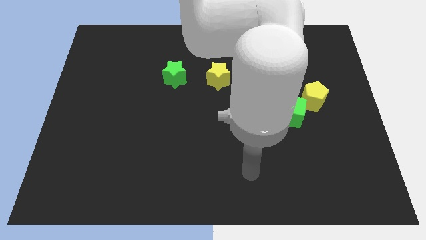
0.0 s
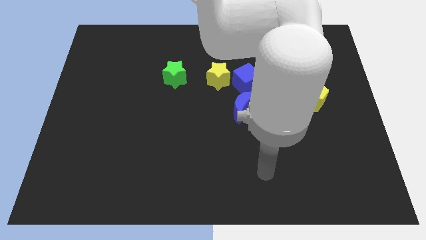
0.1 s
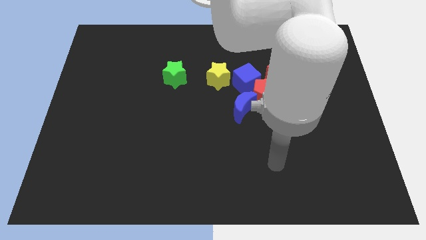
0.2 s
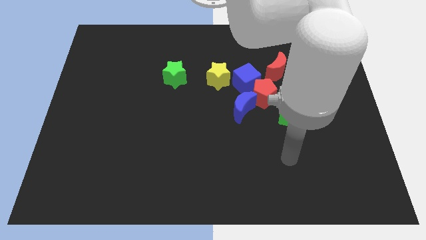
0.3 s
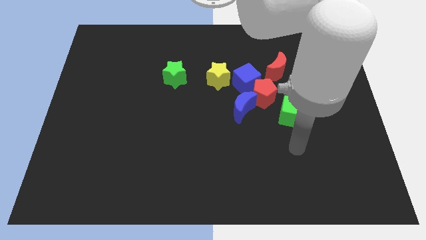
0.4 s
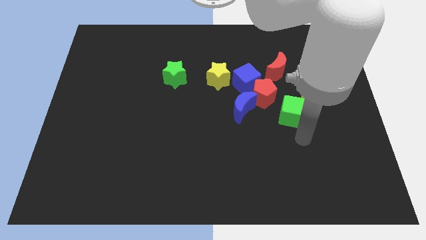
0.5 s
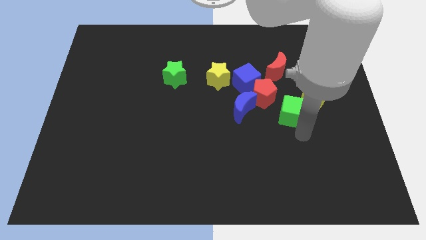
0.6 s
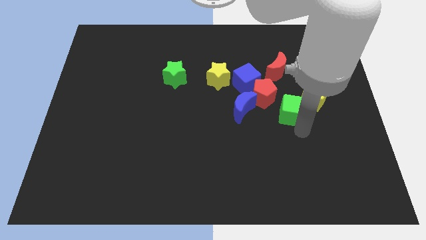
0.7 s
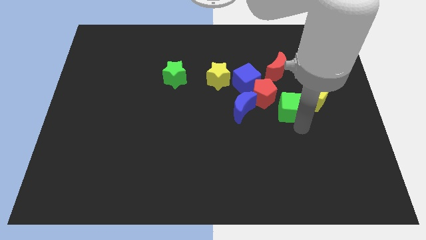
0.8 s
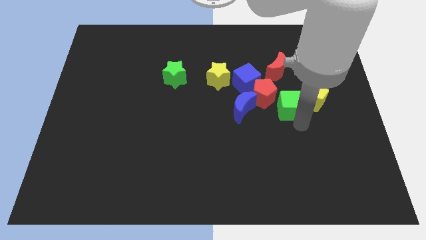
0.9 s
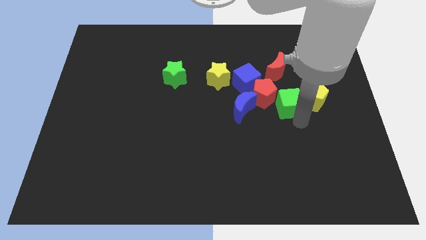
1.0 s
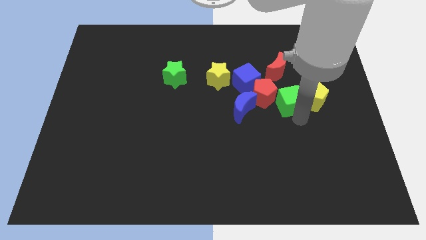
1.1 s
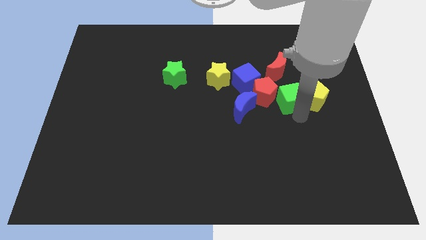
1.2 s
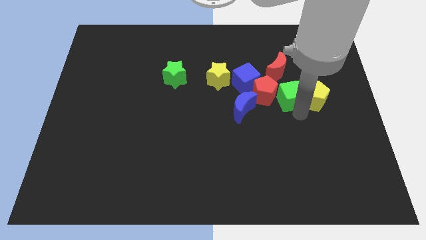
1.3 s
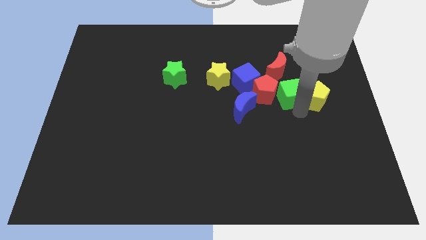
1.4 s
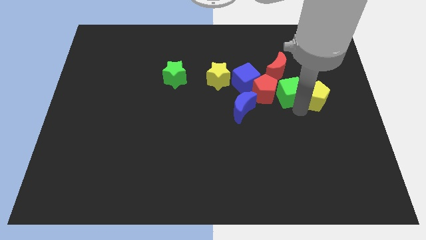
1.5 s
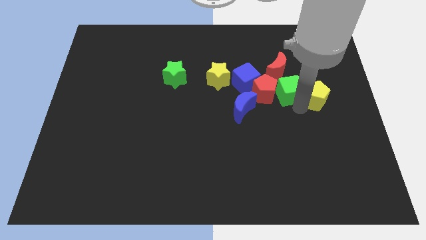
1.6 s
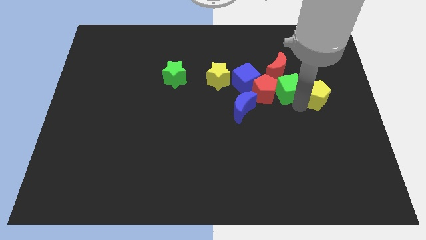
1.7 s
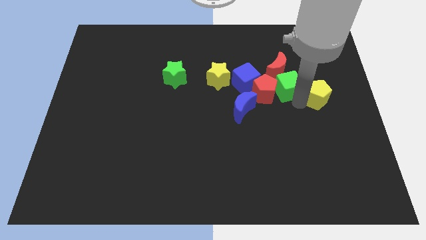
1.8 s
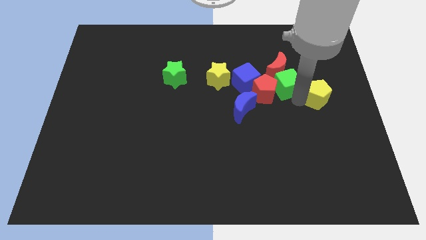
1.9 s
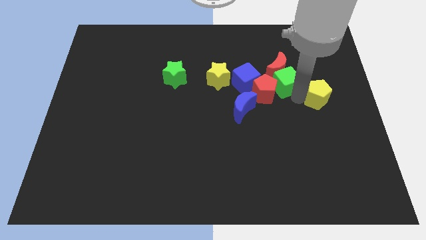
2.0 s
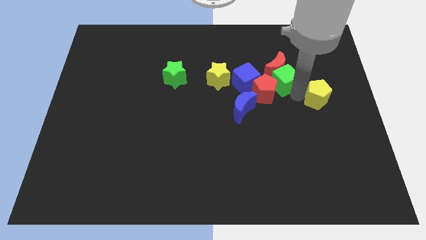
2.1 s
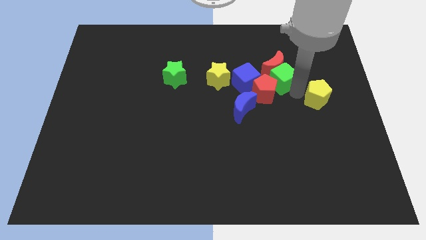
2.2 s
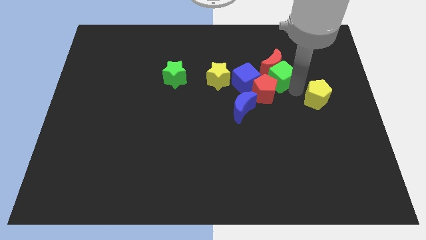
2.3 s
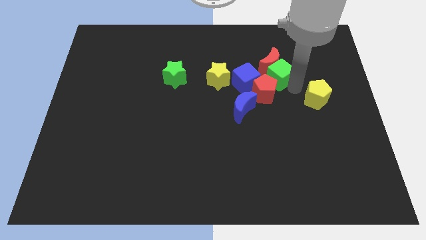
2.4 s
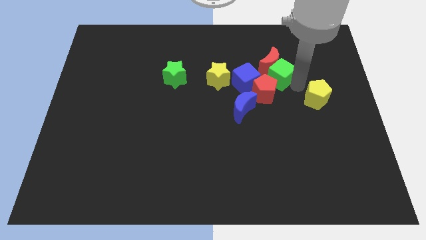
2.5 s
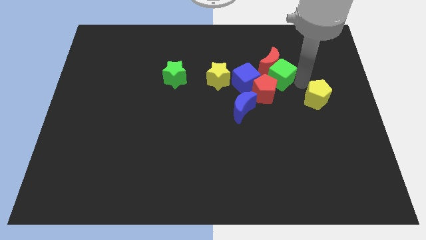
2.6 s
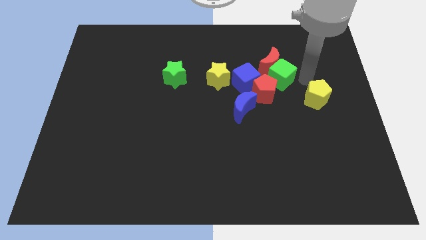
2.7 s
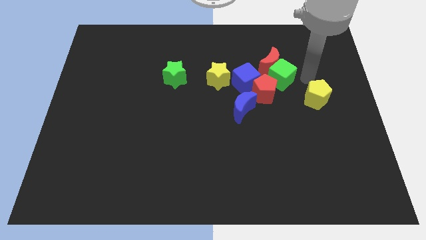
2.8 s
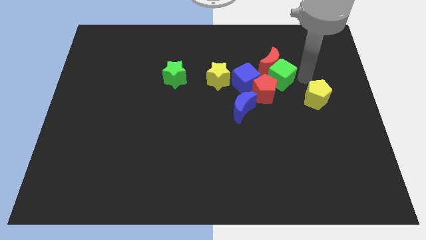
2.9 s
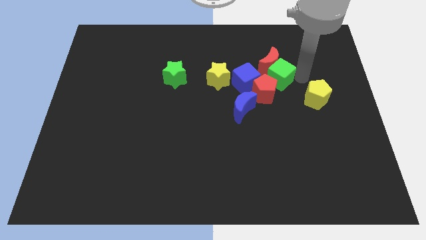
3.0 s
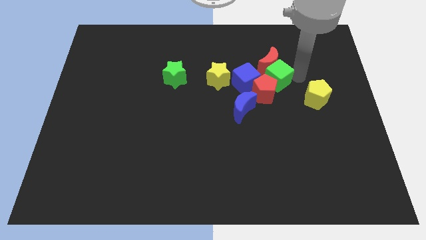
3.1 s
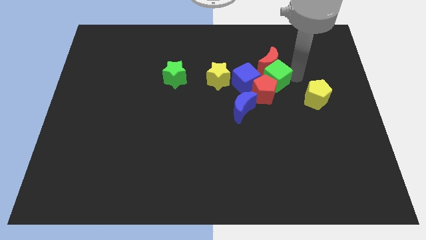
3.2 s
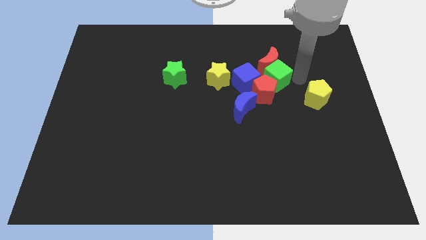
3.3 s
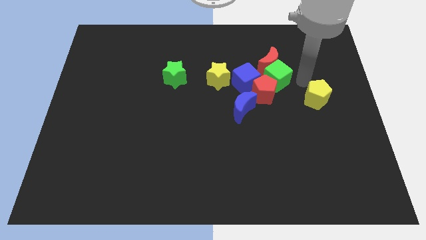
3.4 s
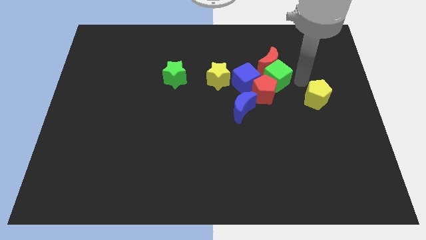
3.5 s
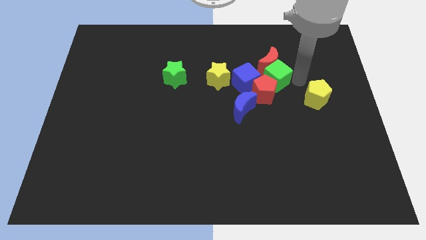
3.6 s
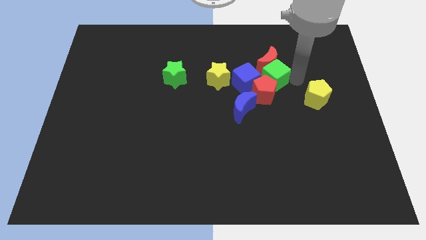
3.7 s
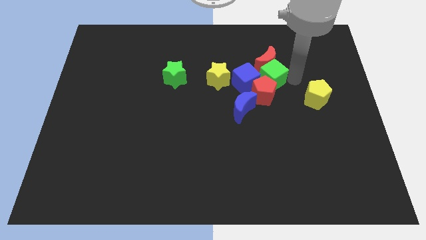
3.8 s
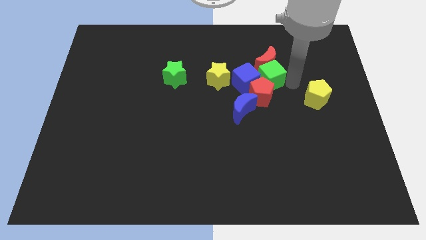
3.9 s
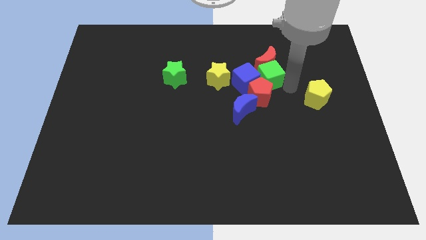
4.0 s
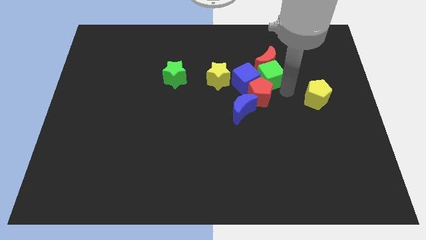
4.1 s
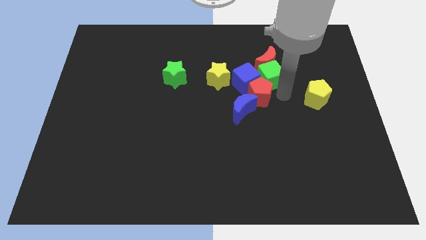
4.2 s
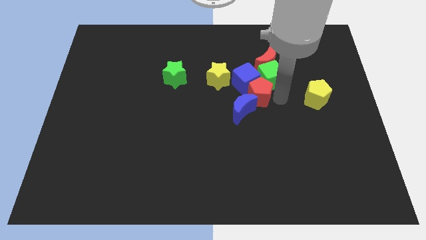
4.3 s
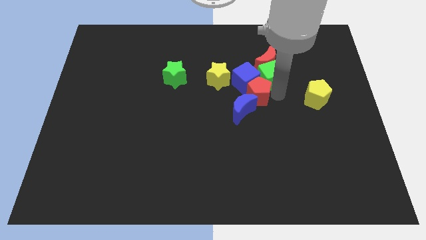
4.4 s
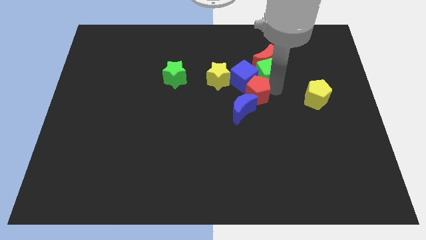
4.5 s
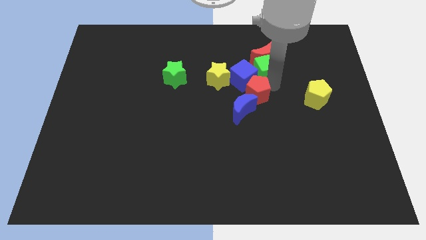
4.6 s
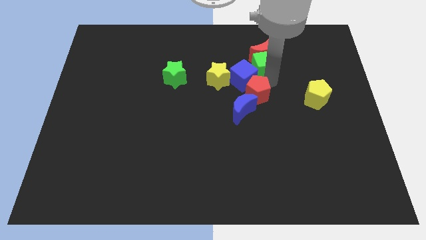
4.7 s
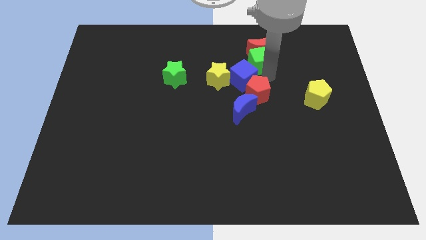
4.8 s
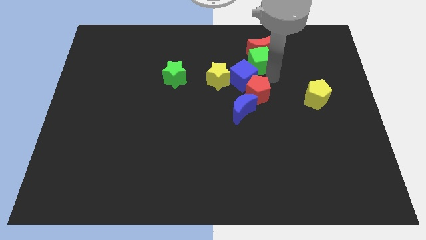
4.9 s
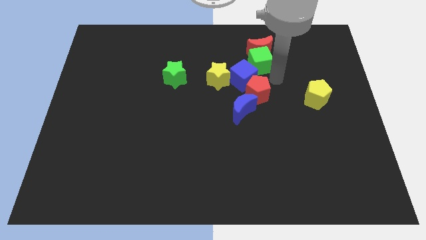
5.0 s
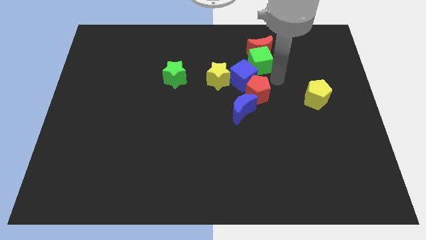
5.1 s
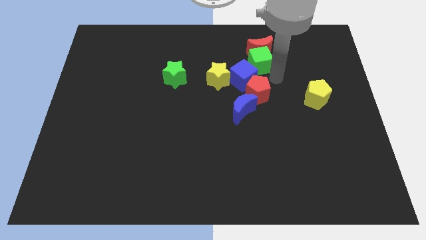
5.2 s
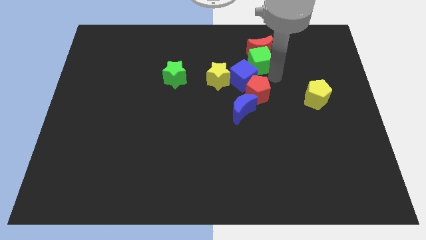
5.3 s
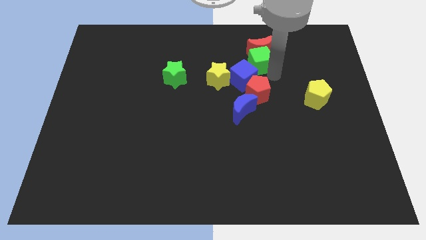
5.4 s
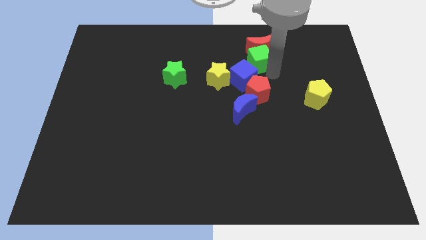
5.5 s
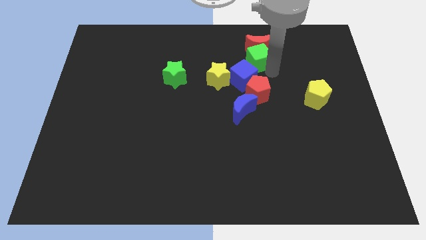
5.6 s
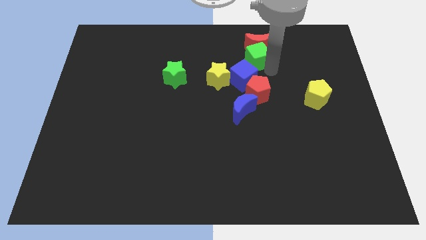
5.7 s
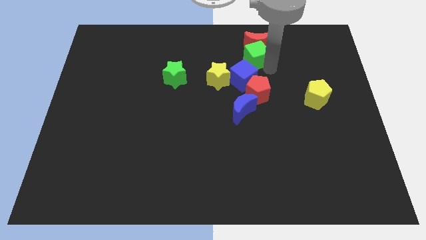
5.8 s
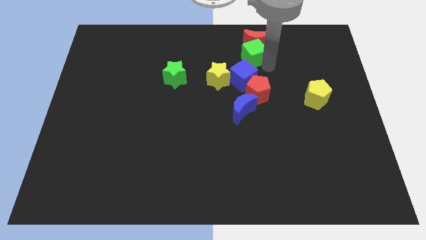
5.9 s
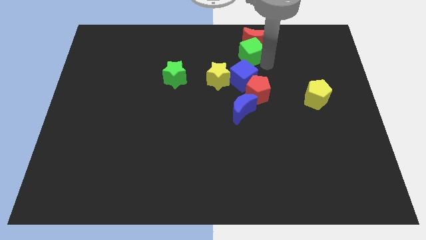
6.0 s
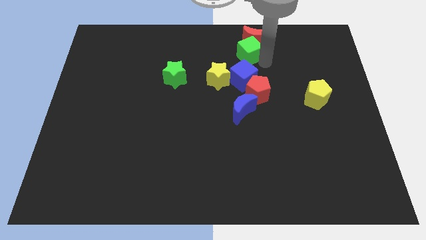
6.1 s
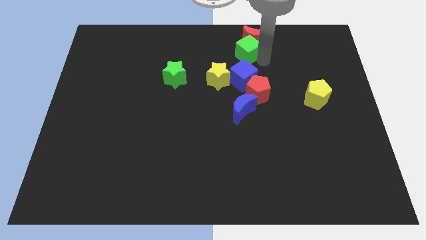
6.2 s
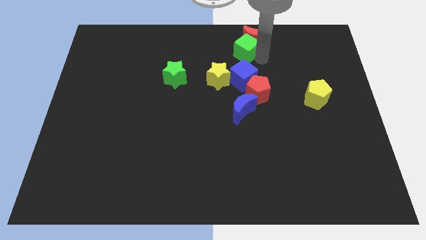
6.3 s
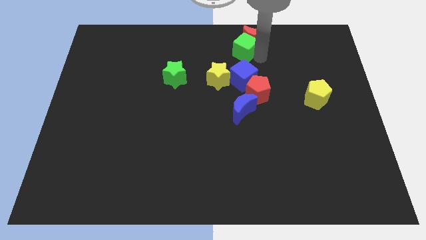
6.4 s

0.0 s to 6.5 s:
slide the green cube to the top side

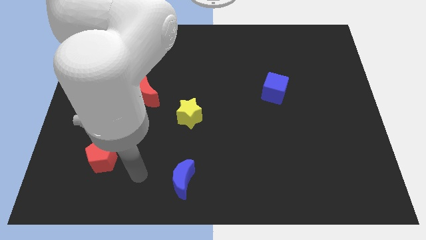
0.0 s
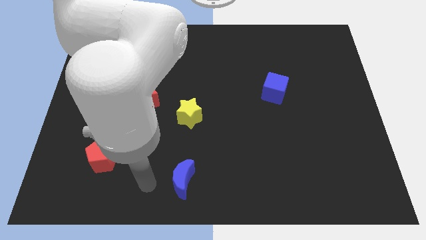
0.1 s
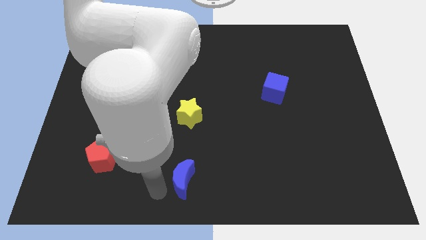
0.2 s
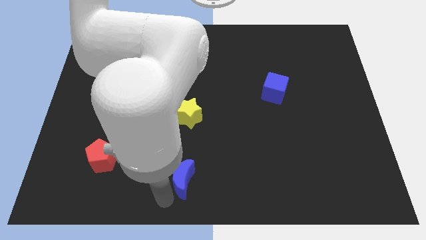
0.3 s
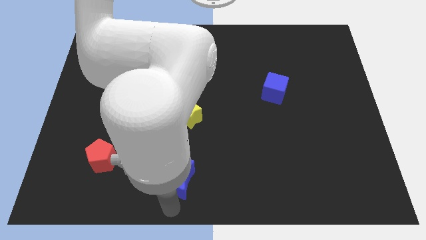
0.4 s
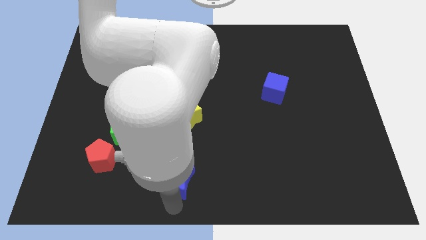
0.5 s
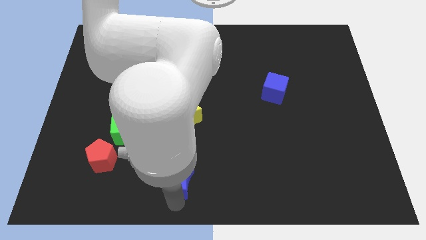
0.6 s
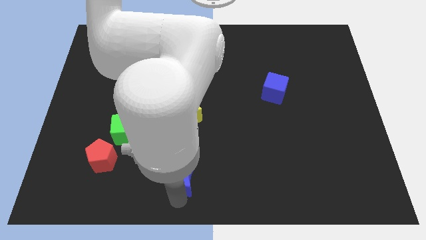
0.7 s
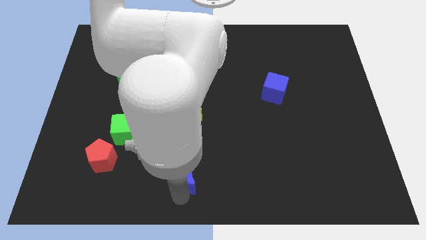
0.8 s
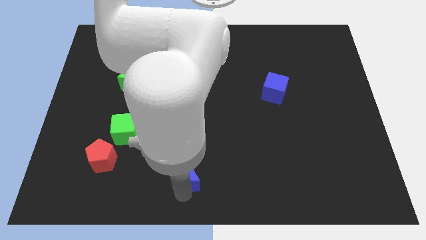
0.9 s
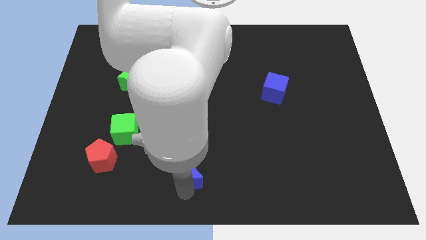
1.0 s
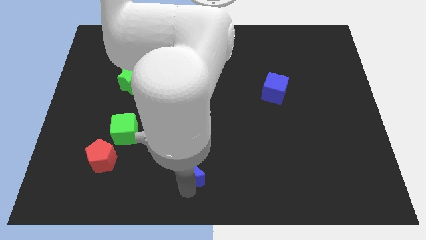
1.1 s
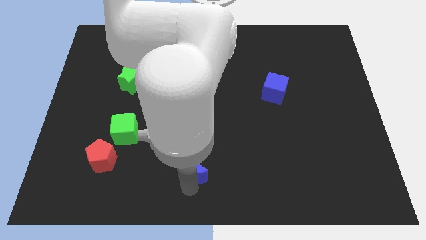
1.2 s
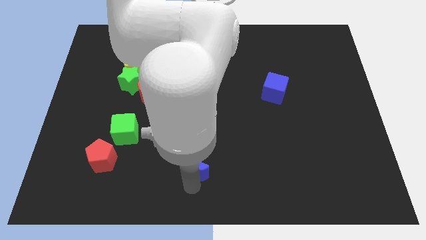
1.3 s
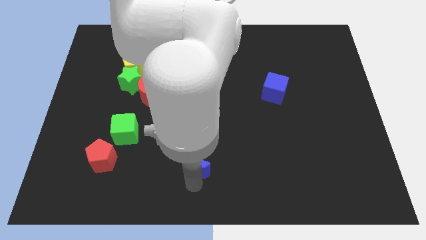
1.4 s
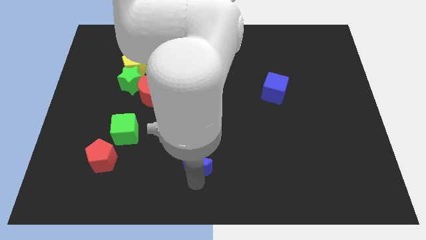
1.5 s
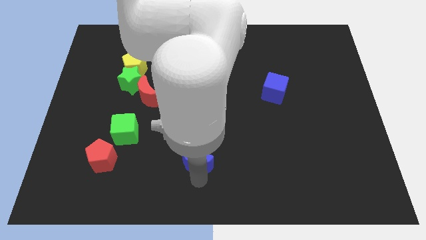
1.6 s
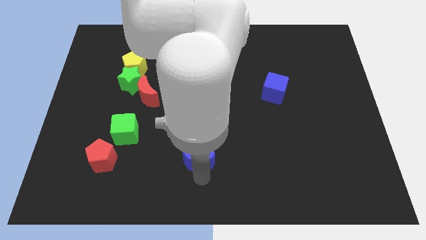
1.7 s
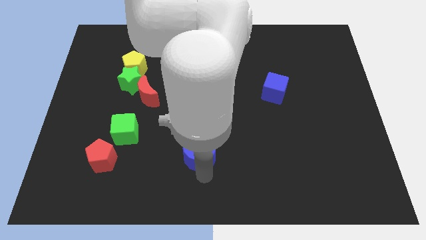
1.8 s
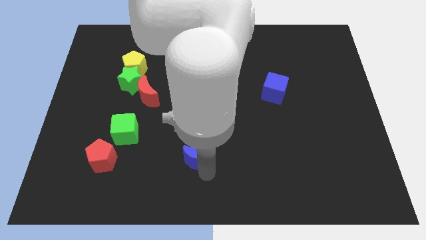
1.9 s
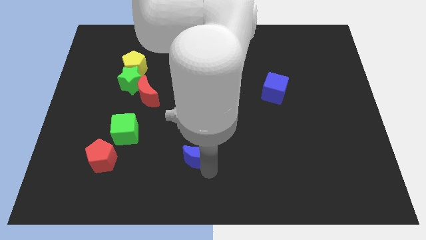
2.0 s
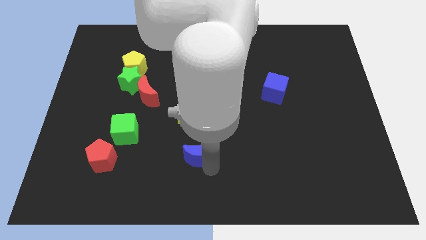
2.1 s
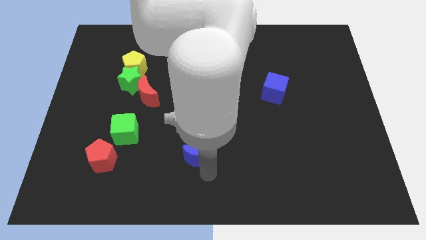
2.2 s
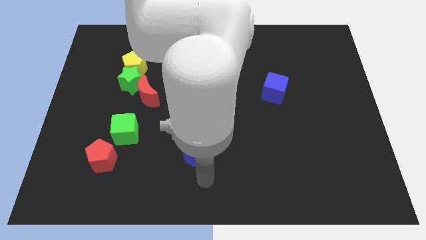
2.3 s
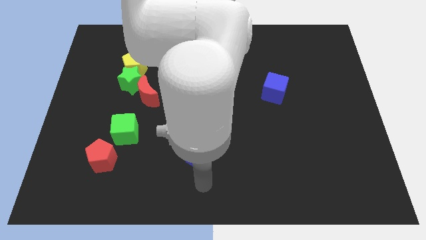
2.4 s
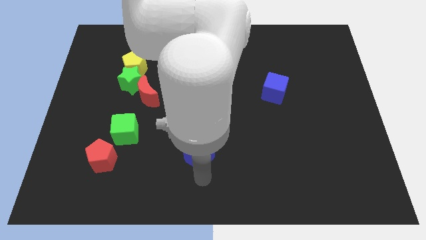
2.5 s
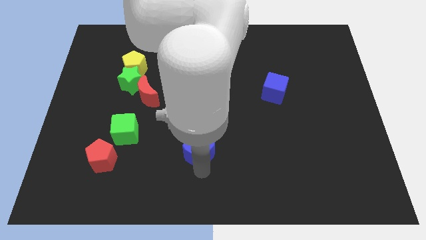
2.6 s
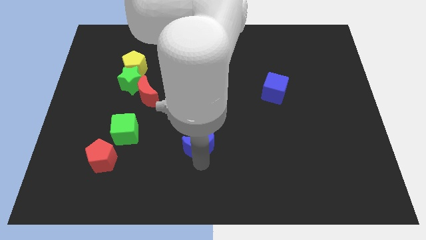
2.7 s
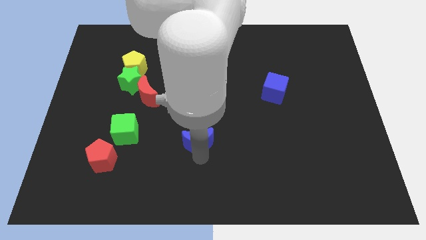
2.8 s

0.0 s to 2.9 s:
slide the blue moon to the middle of the board
